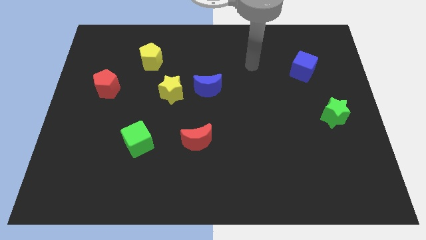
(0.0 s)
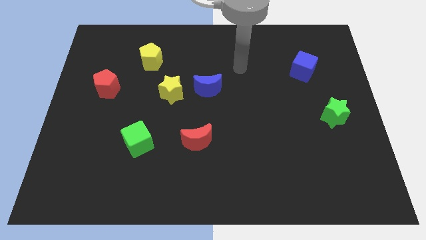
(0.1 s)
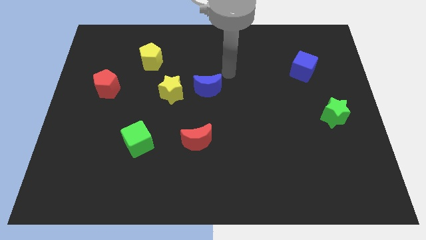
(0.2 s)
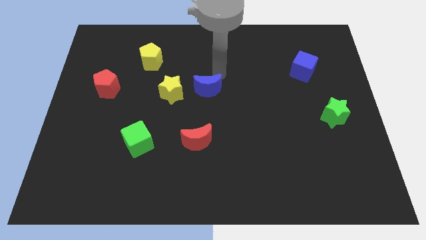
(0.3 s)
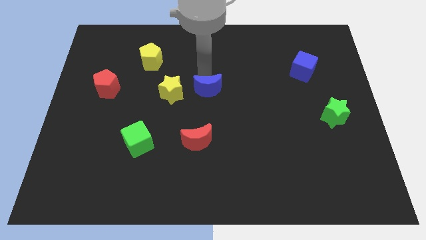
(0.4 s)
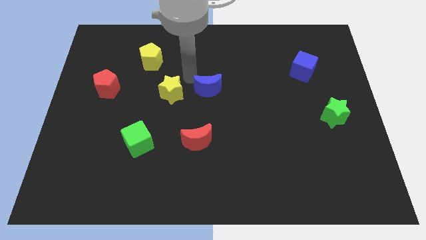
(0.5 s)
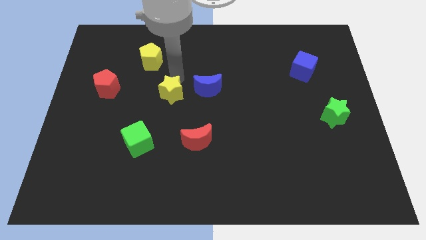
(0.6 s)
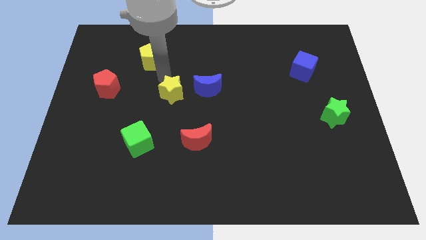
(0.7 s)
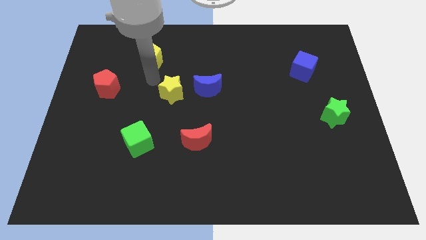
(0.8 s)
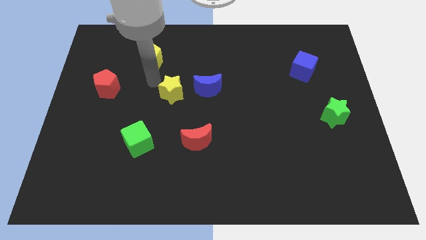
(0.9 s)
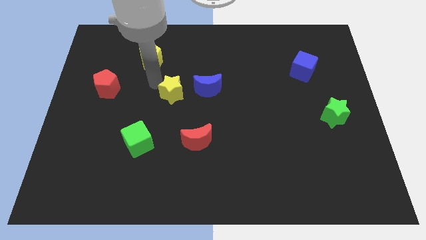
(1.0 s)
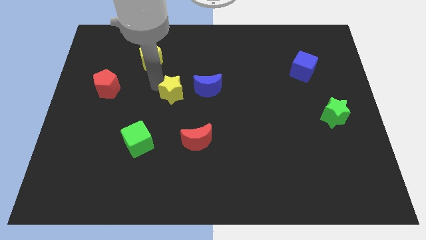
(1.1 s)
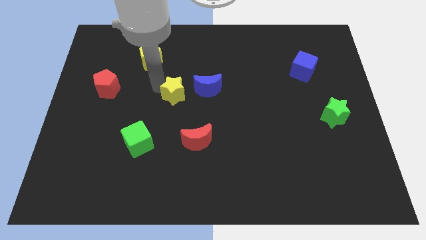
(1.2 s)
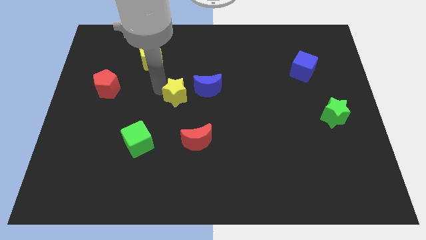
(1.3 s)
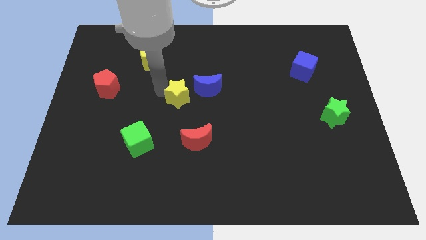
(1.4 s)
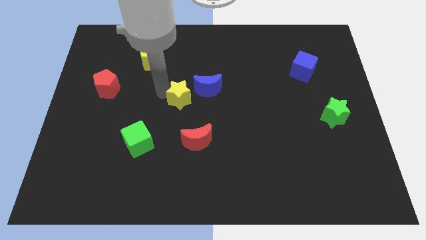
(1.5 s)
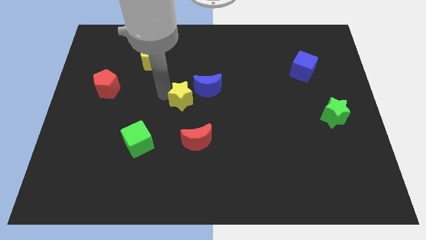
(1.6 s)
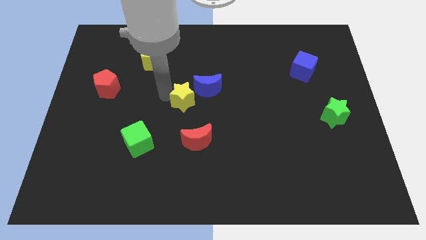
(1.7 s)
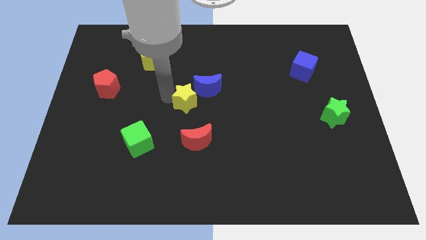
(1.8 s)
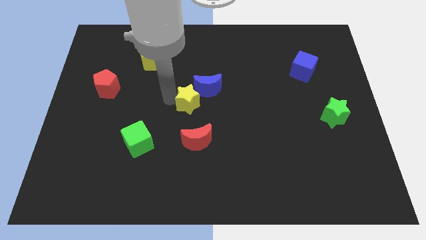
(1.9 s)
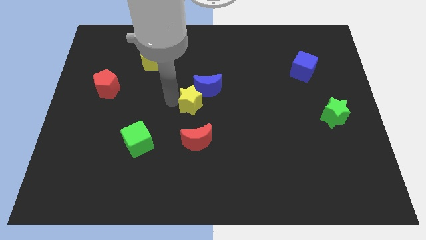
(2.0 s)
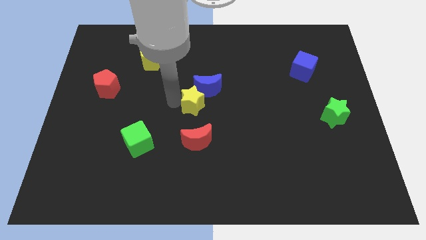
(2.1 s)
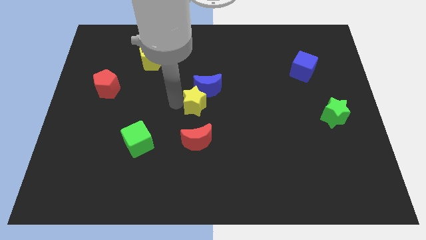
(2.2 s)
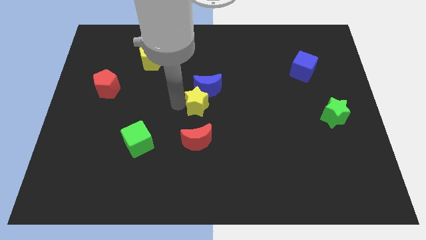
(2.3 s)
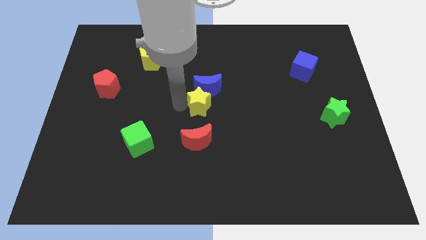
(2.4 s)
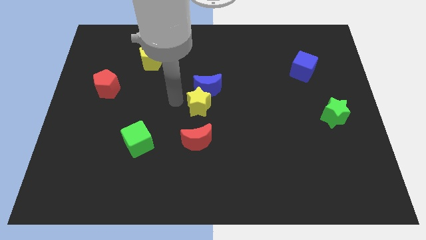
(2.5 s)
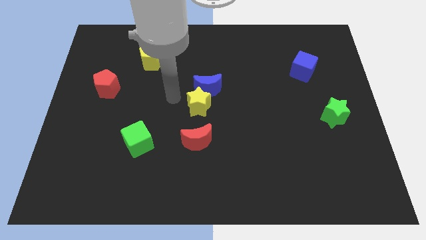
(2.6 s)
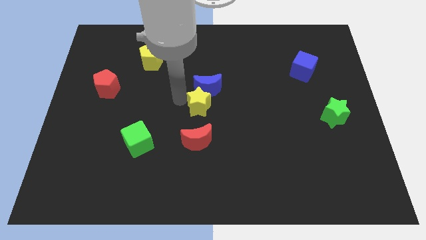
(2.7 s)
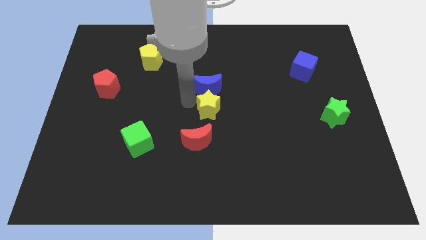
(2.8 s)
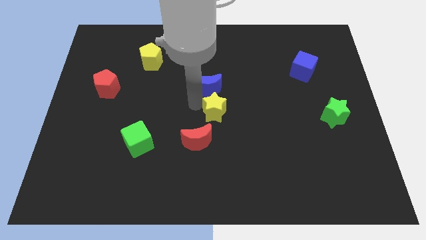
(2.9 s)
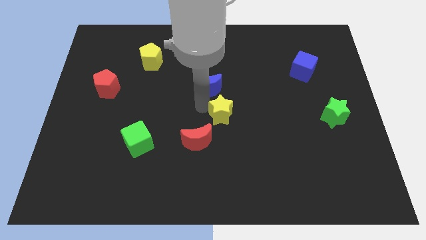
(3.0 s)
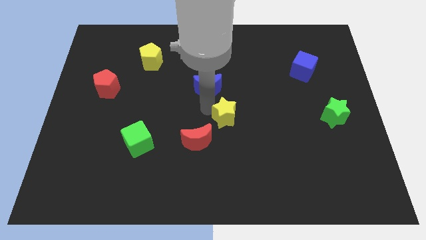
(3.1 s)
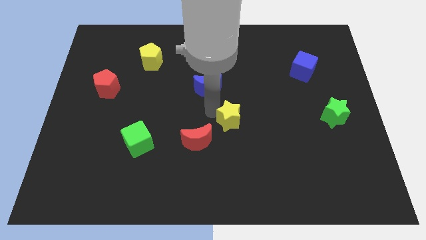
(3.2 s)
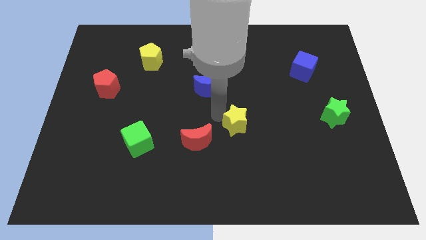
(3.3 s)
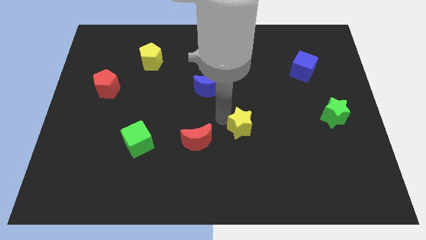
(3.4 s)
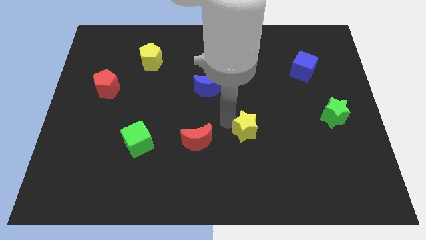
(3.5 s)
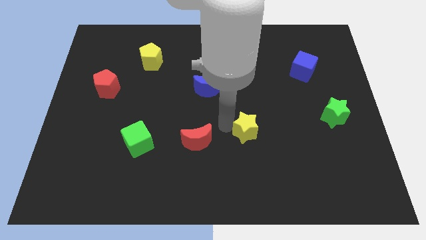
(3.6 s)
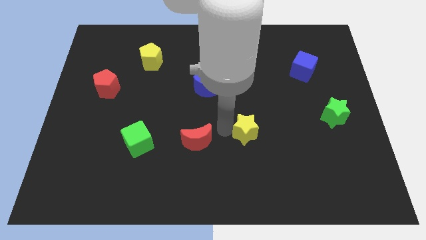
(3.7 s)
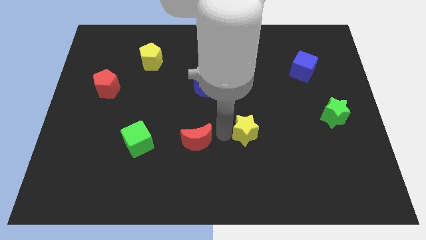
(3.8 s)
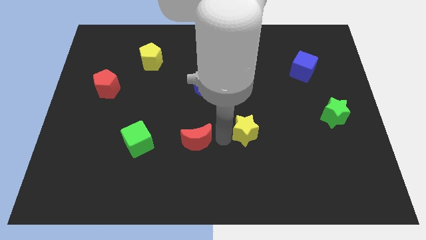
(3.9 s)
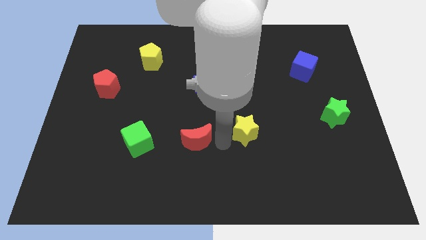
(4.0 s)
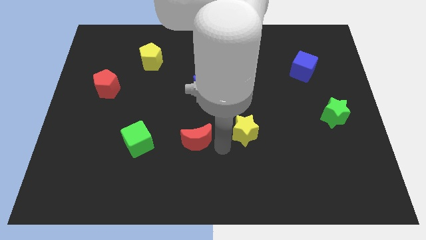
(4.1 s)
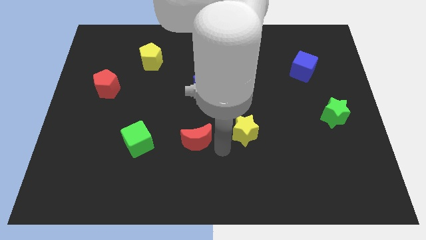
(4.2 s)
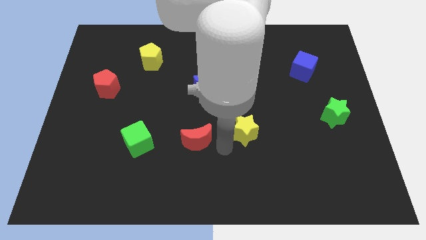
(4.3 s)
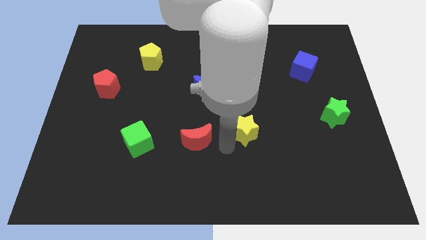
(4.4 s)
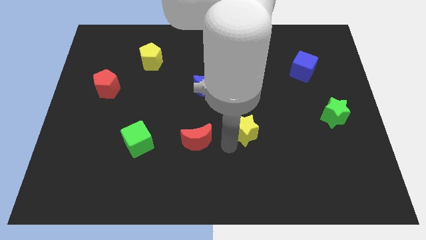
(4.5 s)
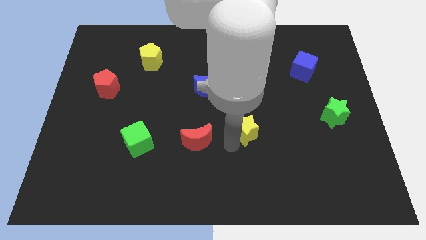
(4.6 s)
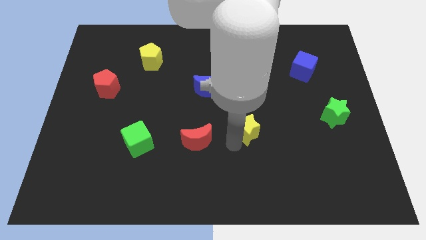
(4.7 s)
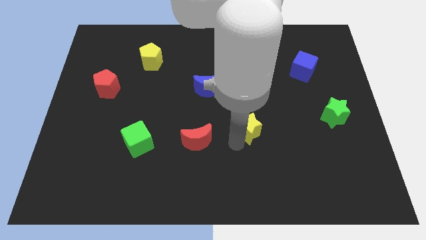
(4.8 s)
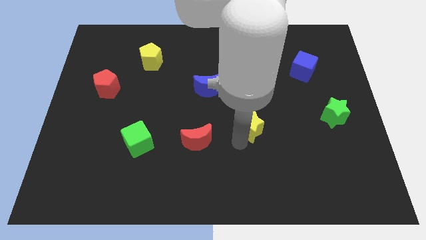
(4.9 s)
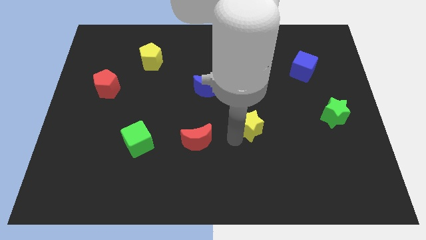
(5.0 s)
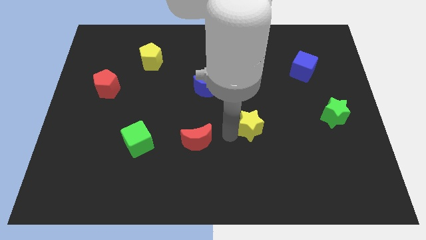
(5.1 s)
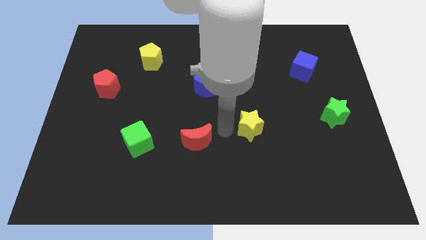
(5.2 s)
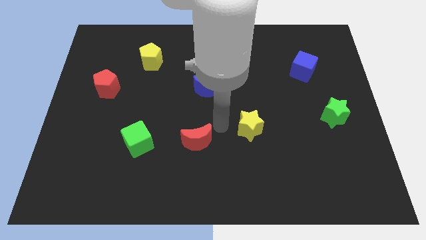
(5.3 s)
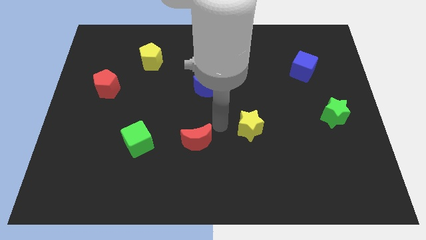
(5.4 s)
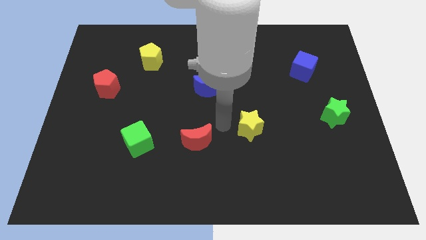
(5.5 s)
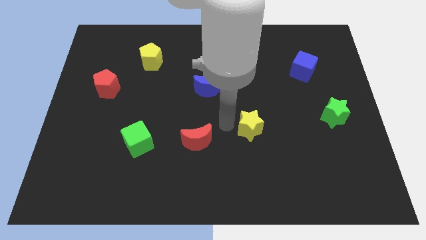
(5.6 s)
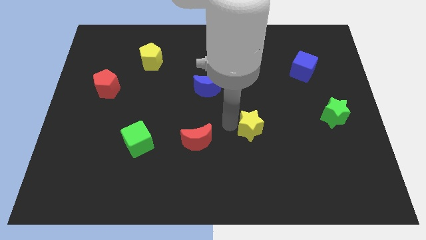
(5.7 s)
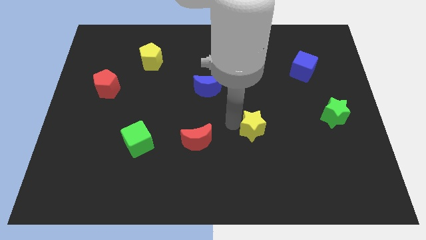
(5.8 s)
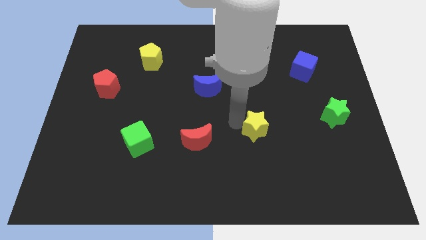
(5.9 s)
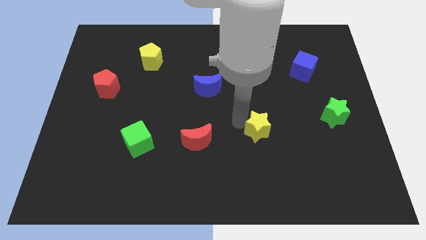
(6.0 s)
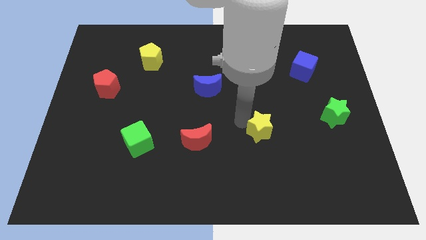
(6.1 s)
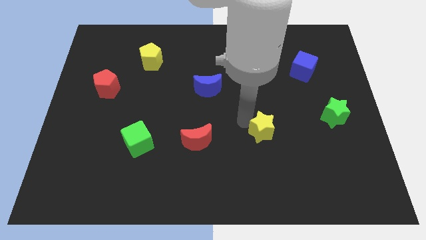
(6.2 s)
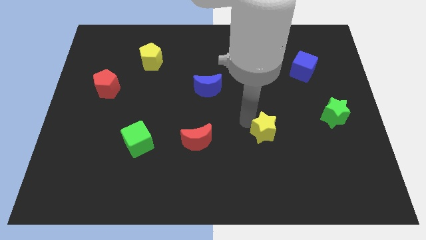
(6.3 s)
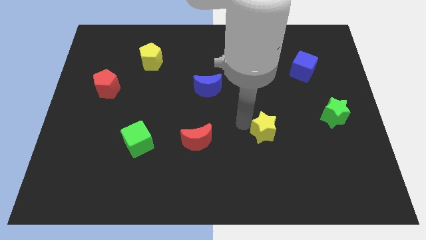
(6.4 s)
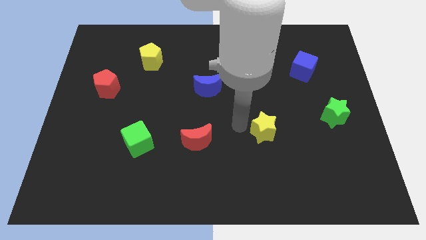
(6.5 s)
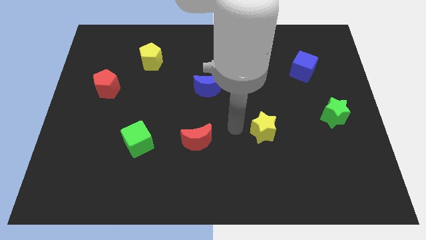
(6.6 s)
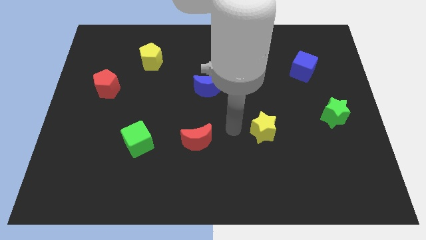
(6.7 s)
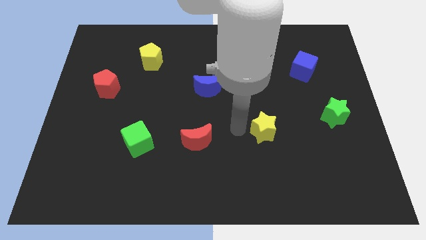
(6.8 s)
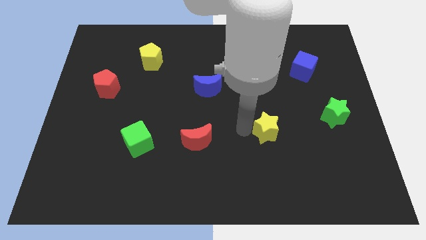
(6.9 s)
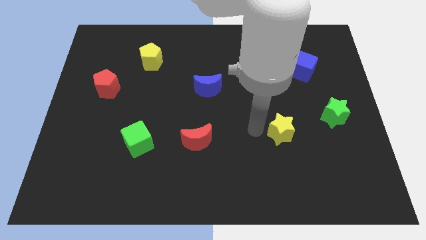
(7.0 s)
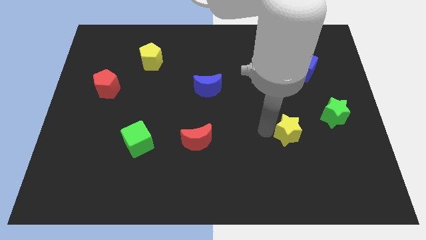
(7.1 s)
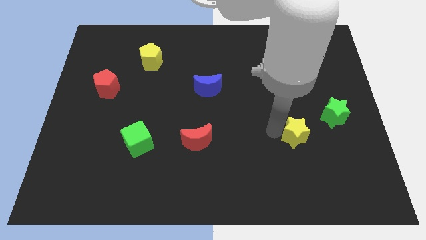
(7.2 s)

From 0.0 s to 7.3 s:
push the yellow star to the bottom left of the green star
